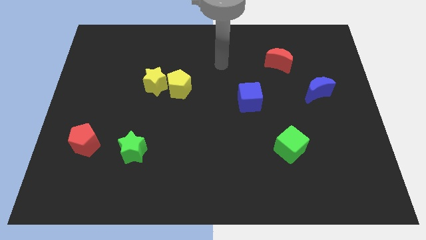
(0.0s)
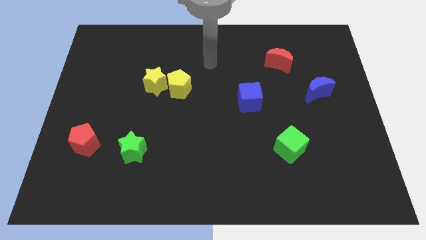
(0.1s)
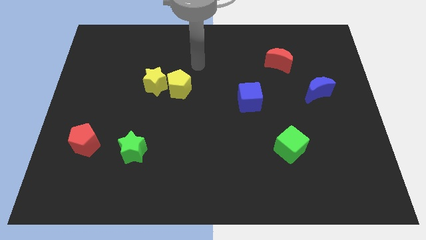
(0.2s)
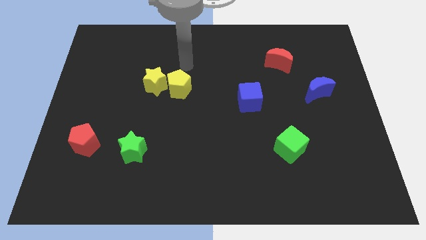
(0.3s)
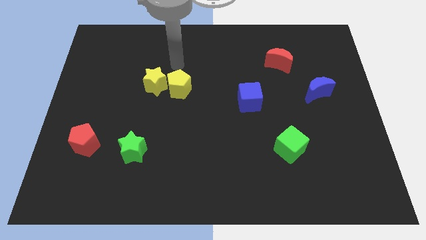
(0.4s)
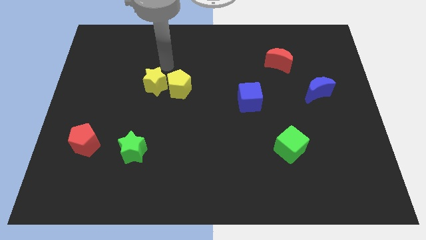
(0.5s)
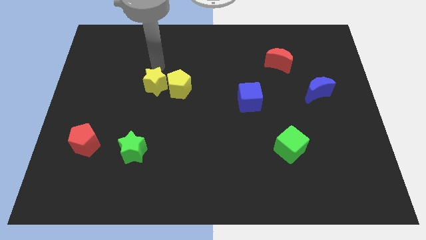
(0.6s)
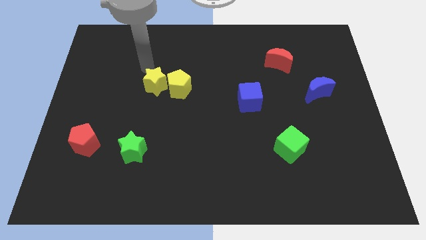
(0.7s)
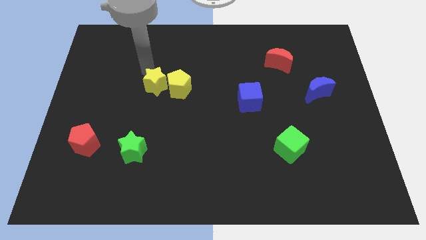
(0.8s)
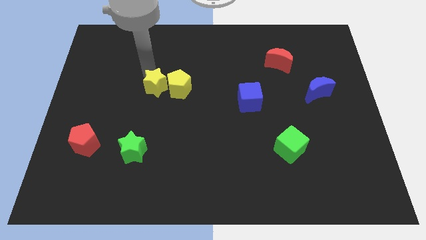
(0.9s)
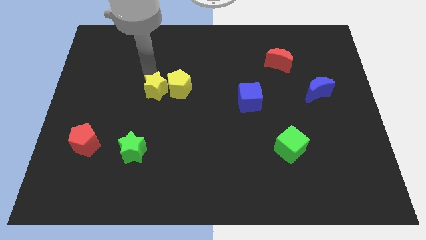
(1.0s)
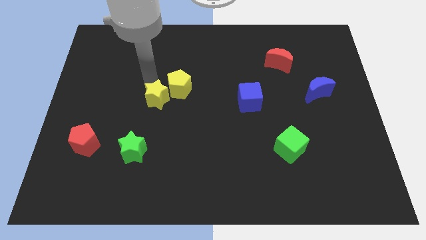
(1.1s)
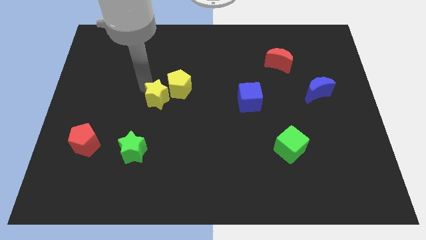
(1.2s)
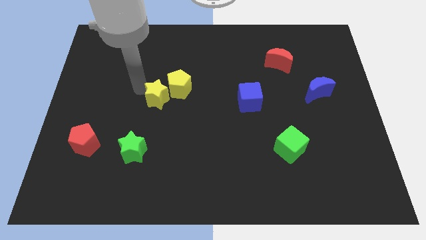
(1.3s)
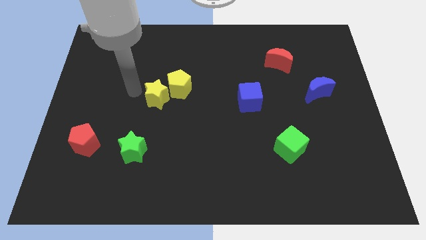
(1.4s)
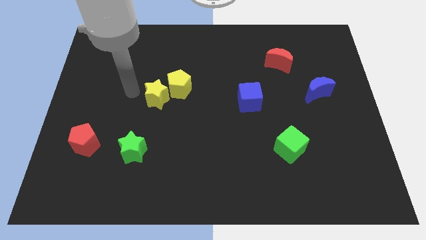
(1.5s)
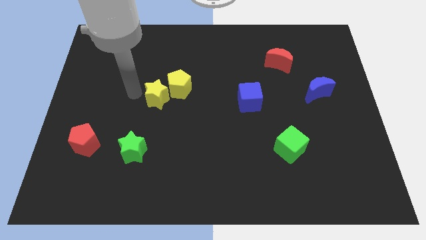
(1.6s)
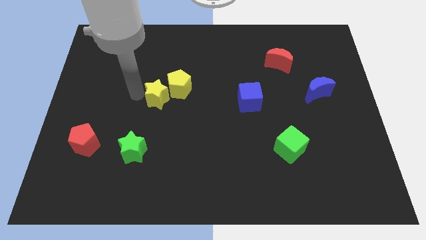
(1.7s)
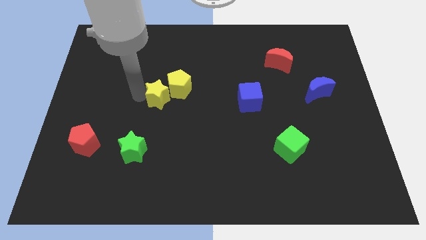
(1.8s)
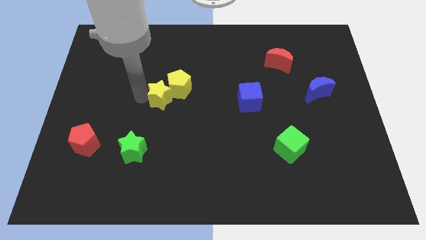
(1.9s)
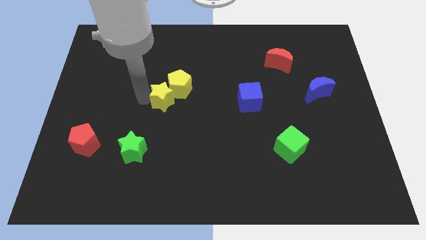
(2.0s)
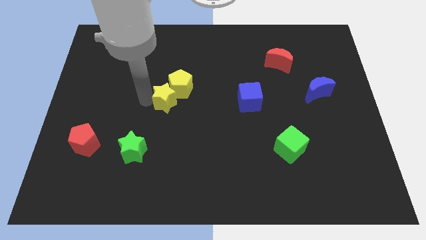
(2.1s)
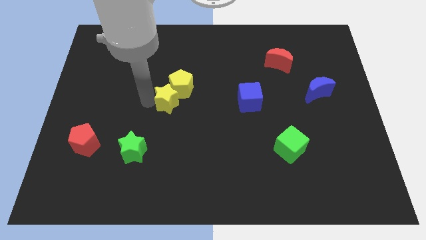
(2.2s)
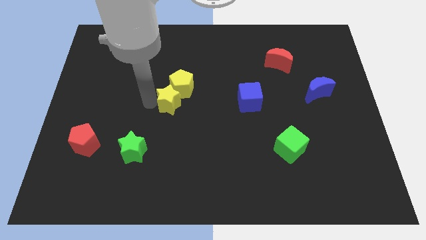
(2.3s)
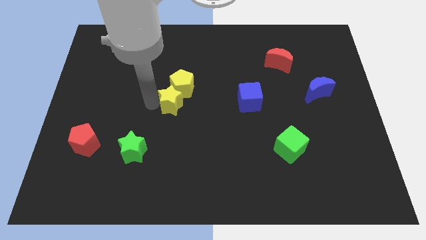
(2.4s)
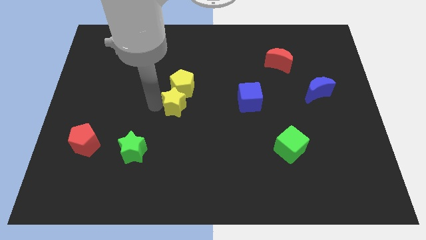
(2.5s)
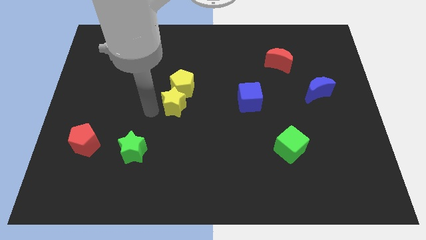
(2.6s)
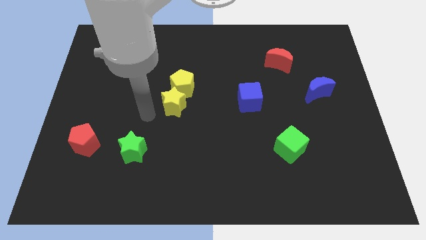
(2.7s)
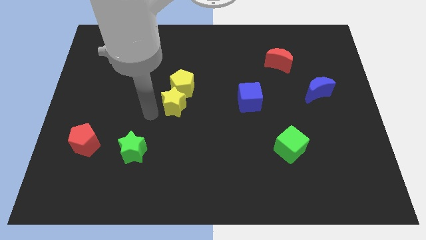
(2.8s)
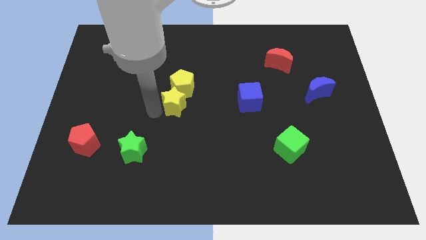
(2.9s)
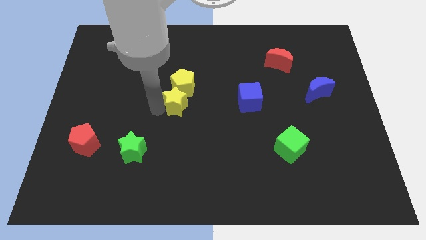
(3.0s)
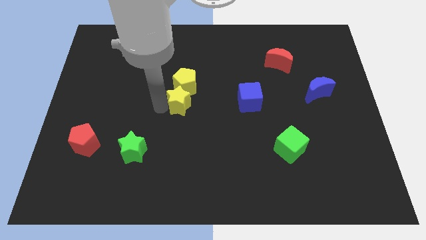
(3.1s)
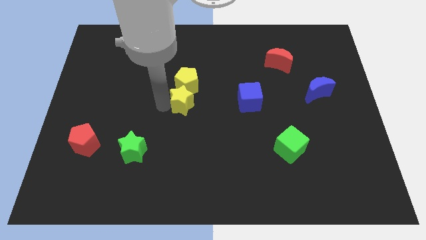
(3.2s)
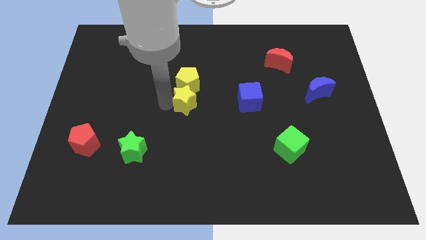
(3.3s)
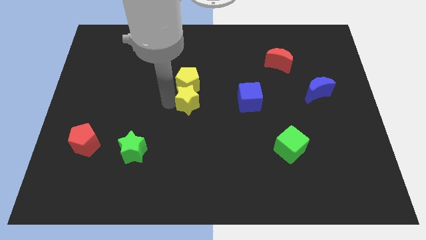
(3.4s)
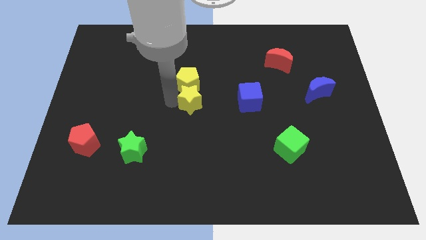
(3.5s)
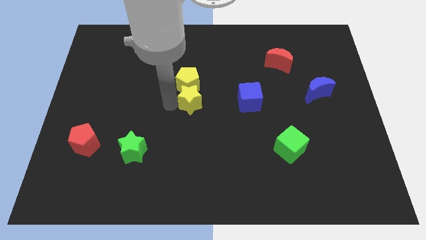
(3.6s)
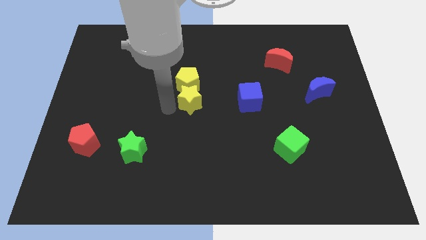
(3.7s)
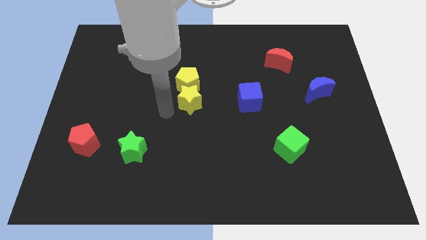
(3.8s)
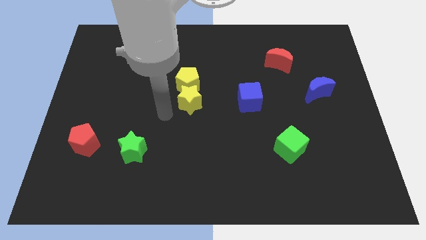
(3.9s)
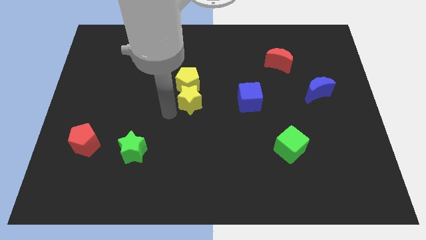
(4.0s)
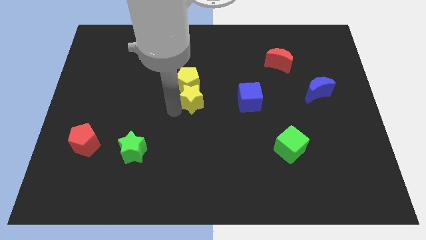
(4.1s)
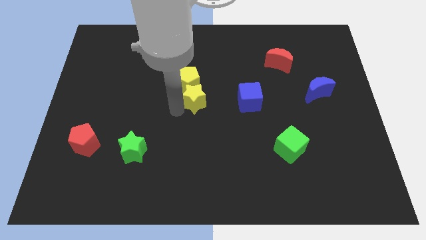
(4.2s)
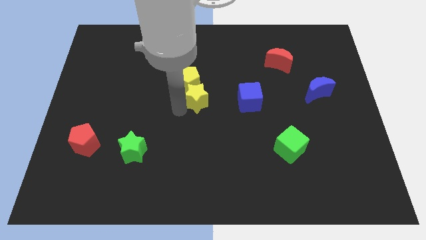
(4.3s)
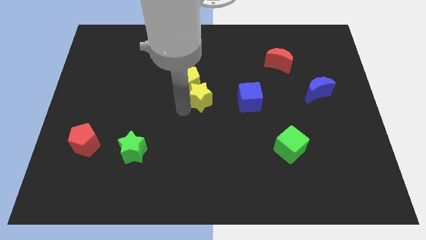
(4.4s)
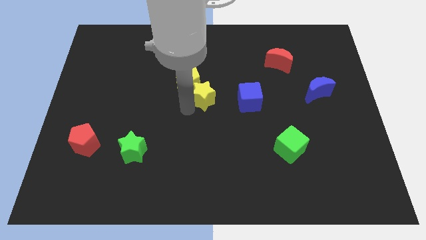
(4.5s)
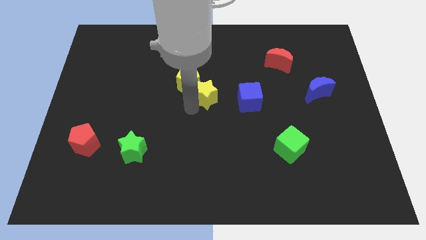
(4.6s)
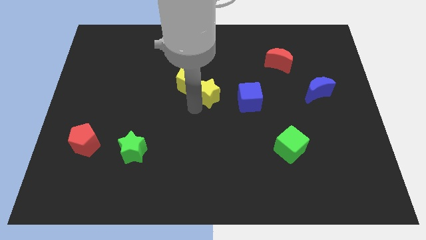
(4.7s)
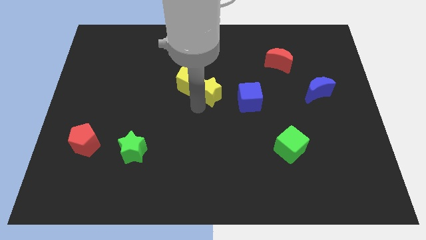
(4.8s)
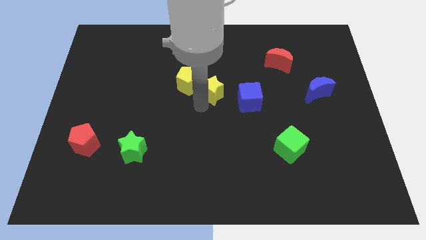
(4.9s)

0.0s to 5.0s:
slide the yellow star diagonally up and to the left of the blue cube

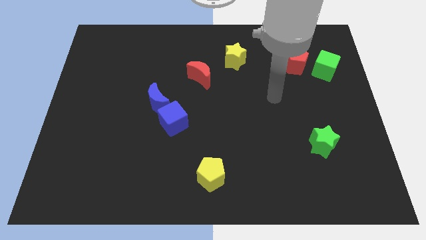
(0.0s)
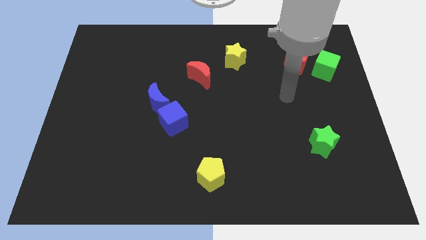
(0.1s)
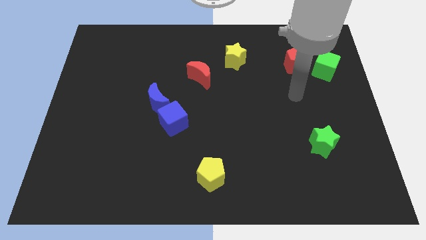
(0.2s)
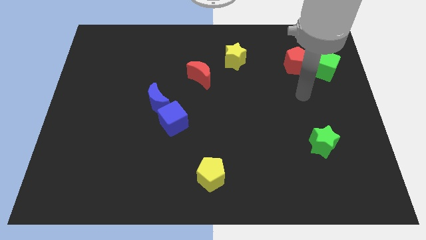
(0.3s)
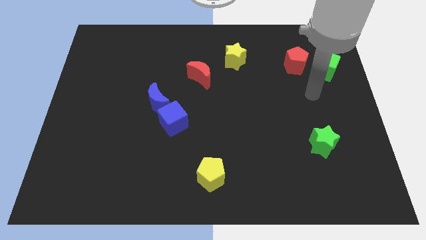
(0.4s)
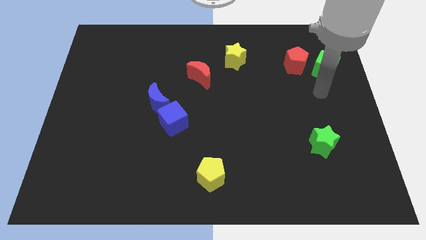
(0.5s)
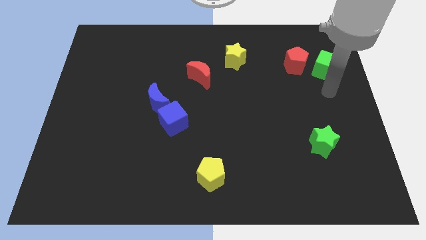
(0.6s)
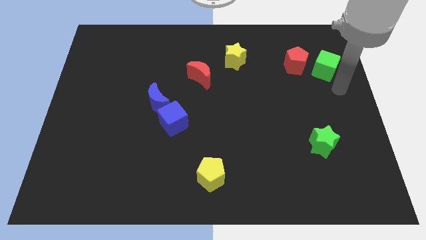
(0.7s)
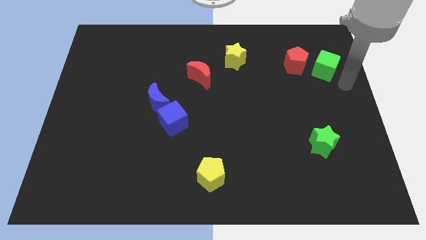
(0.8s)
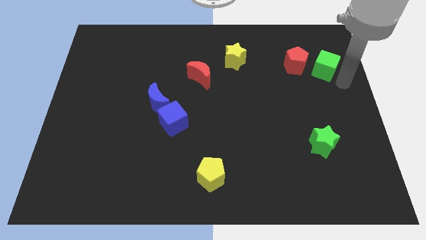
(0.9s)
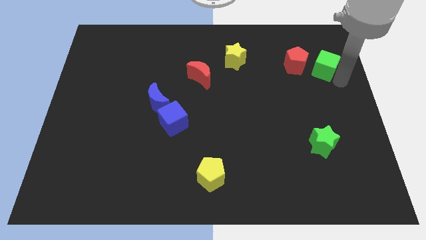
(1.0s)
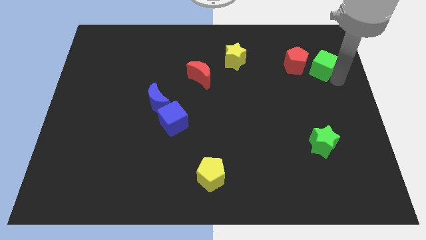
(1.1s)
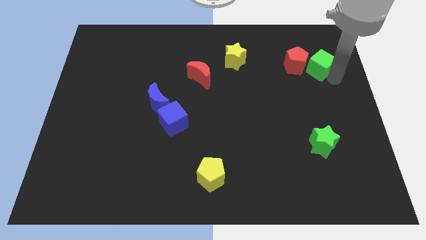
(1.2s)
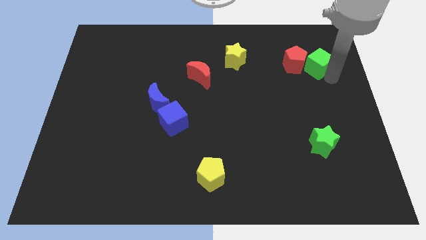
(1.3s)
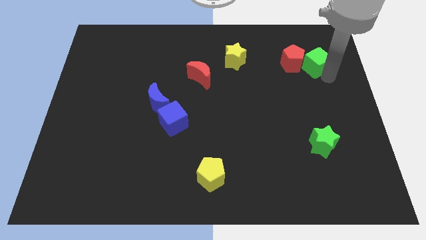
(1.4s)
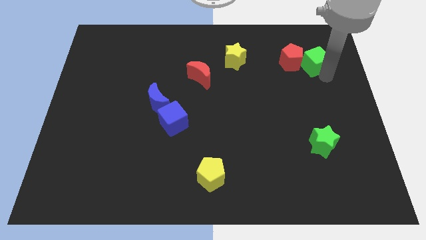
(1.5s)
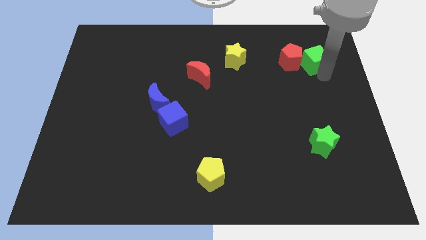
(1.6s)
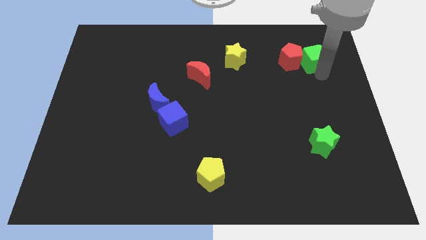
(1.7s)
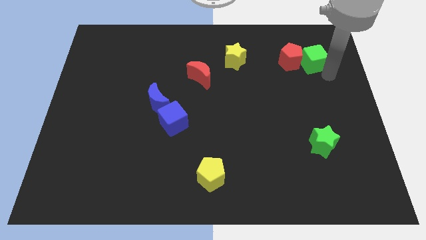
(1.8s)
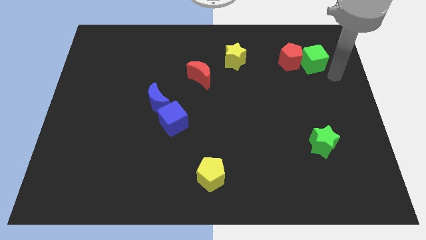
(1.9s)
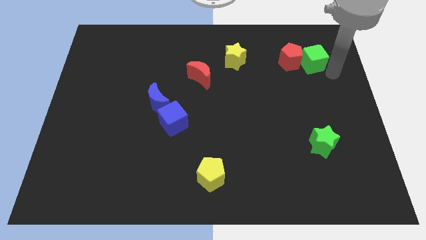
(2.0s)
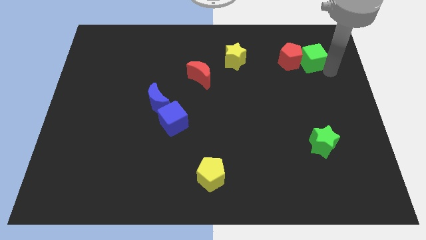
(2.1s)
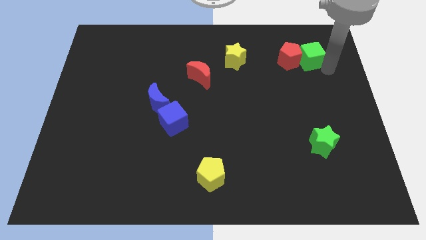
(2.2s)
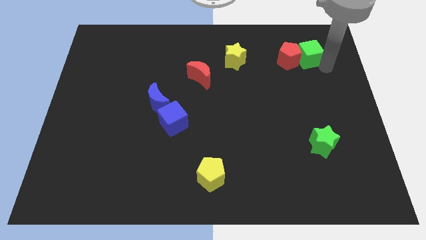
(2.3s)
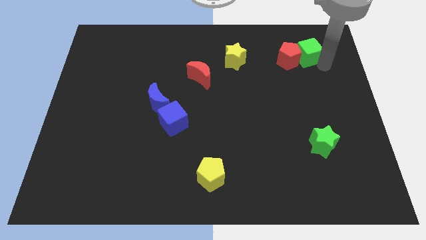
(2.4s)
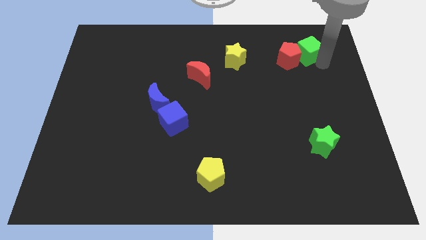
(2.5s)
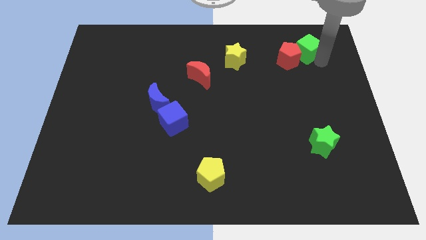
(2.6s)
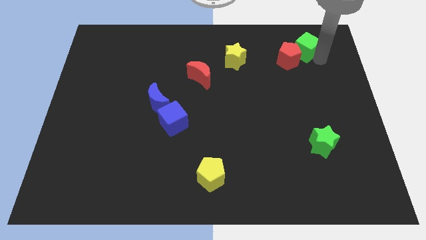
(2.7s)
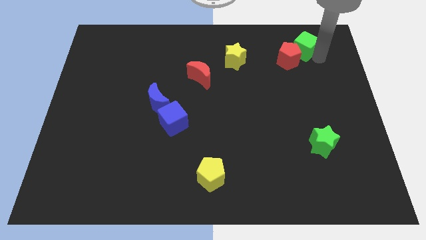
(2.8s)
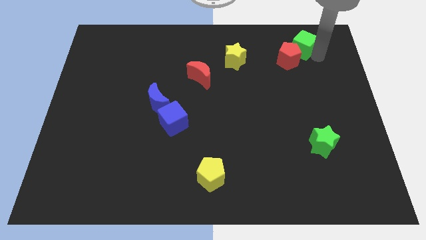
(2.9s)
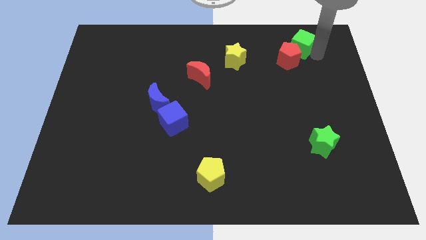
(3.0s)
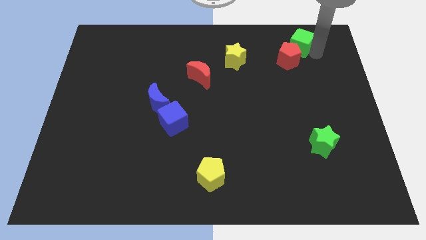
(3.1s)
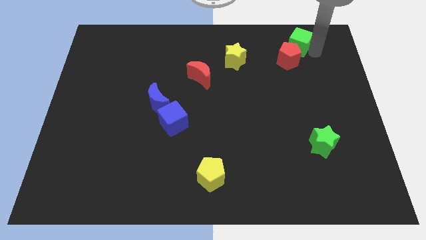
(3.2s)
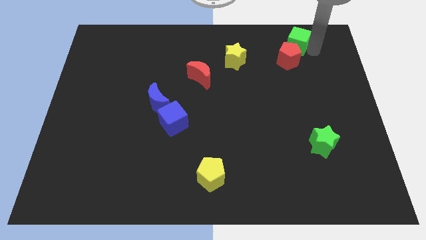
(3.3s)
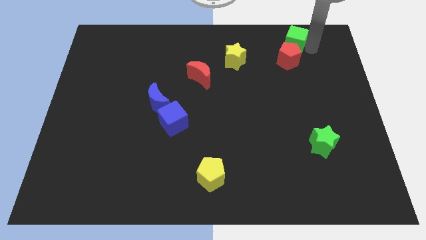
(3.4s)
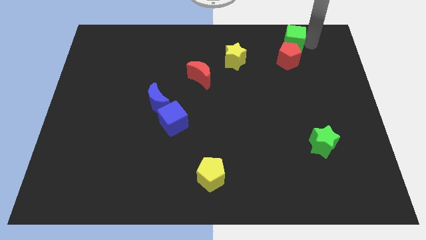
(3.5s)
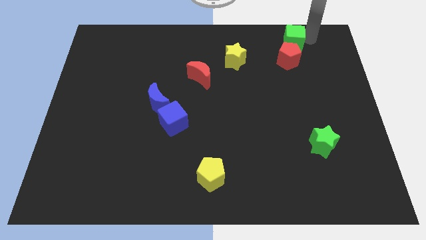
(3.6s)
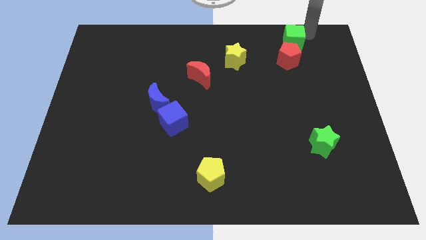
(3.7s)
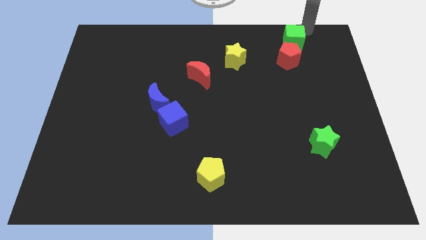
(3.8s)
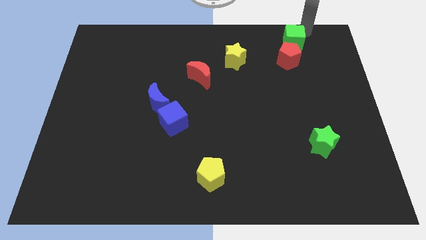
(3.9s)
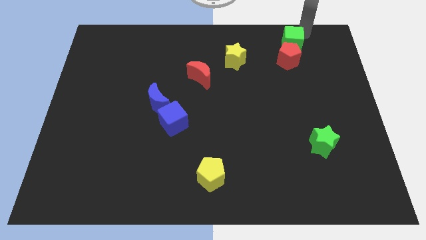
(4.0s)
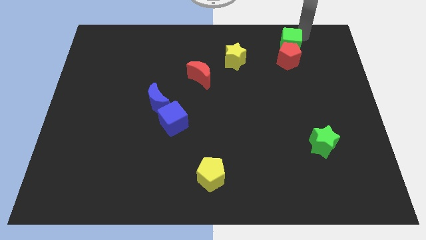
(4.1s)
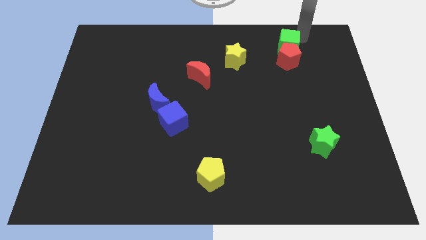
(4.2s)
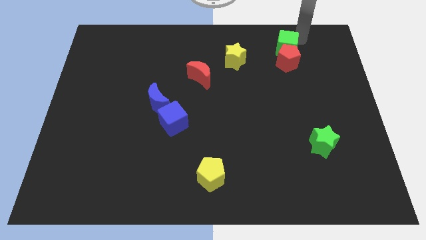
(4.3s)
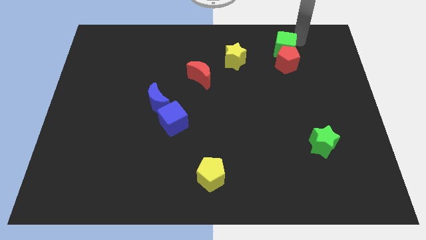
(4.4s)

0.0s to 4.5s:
push the green cube to the right side of the yellow star
